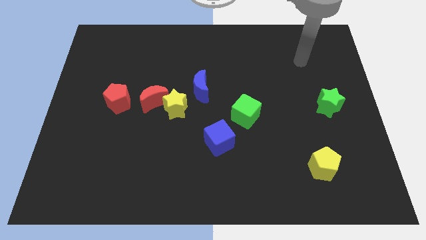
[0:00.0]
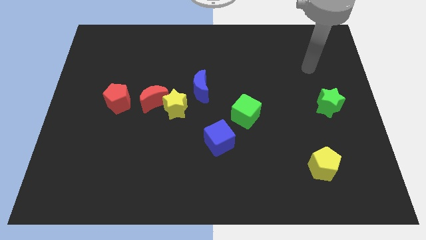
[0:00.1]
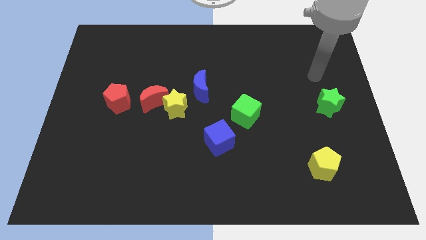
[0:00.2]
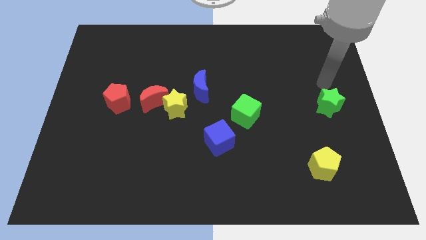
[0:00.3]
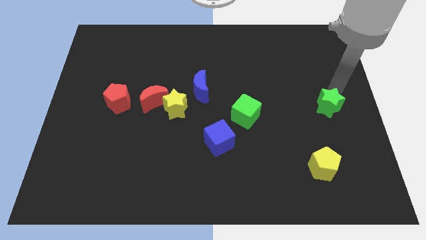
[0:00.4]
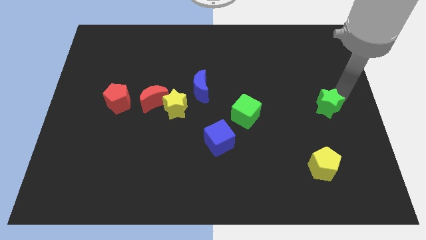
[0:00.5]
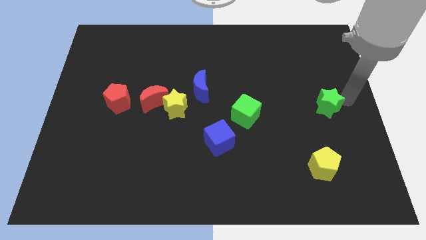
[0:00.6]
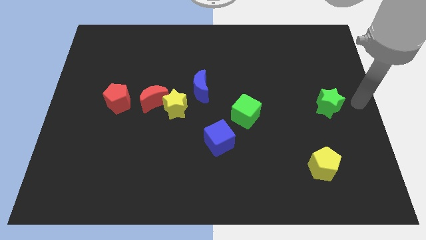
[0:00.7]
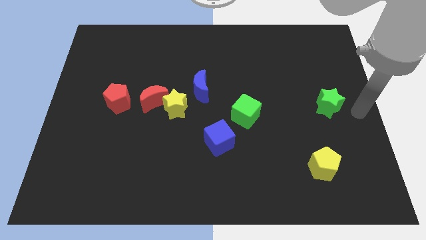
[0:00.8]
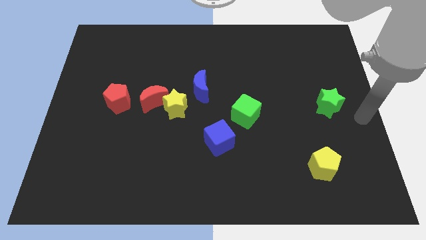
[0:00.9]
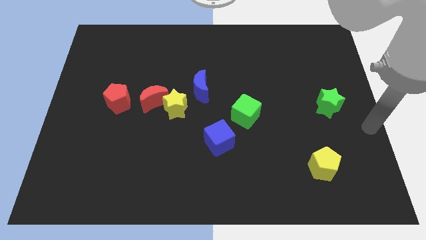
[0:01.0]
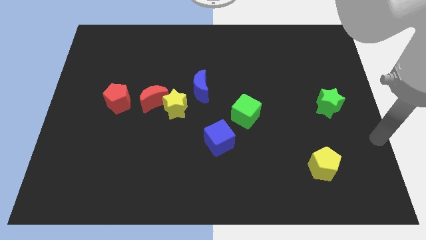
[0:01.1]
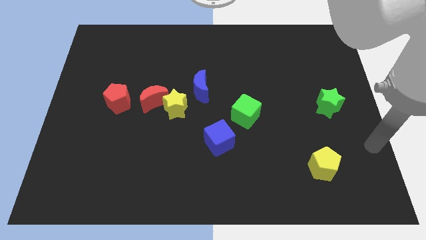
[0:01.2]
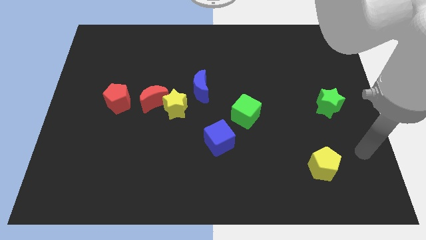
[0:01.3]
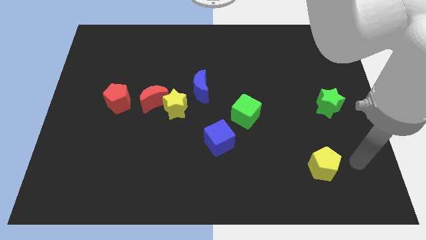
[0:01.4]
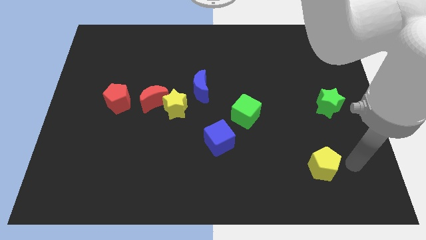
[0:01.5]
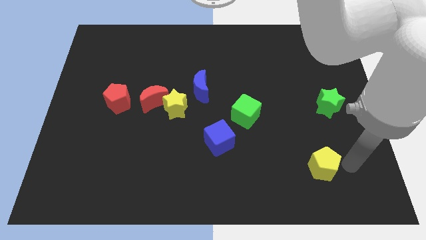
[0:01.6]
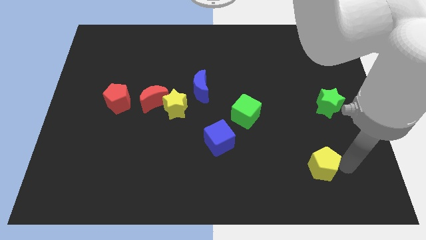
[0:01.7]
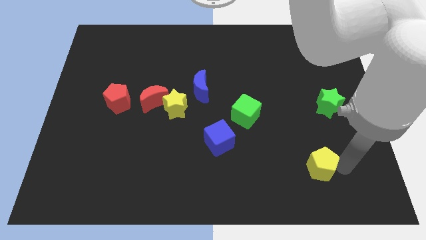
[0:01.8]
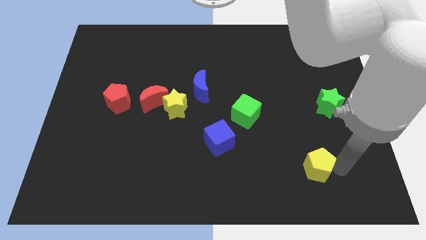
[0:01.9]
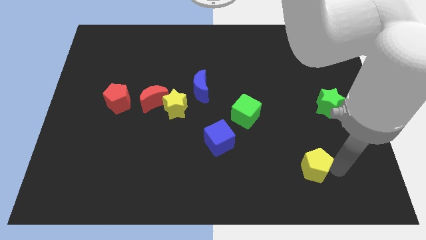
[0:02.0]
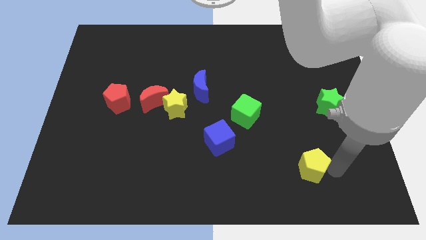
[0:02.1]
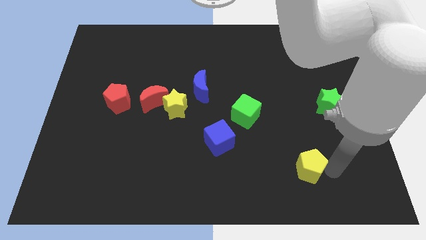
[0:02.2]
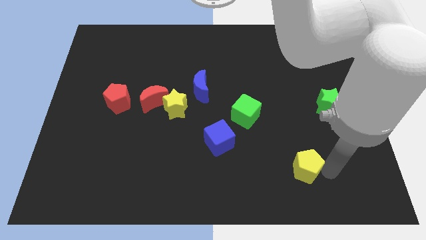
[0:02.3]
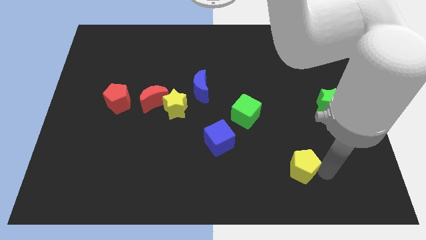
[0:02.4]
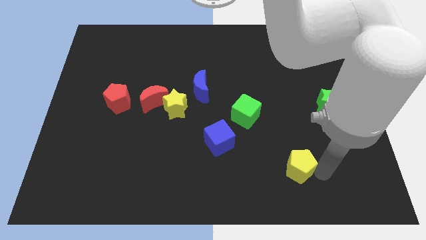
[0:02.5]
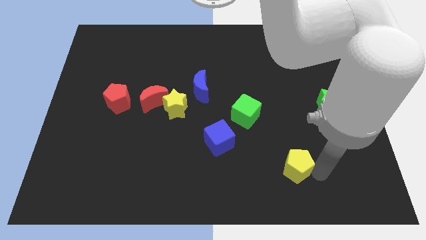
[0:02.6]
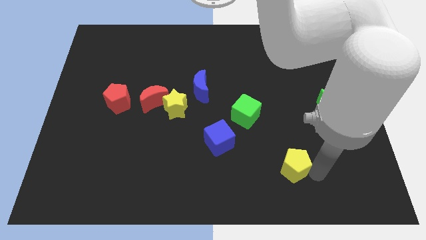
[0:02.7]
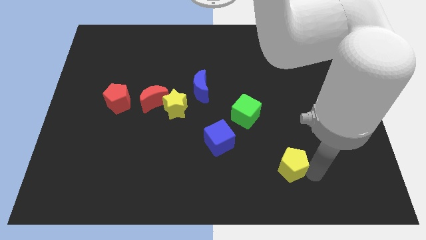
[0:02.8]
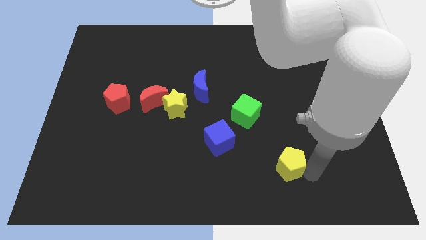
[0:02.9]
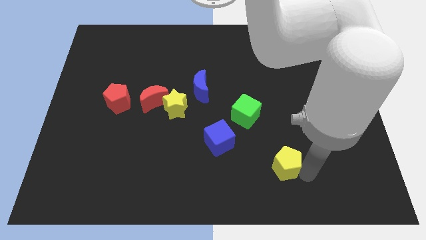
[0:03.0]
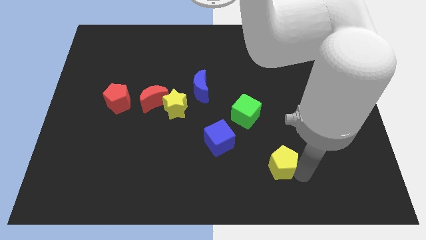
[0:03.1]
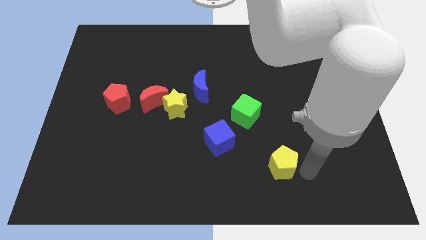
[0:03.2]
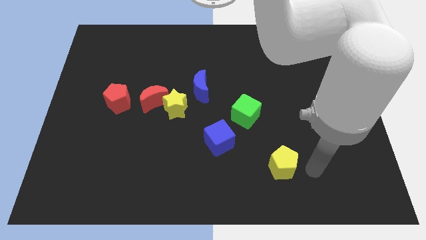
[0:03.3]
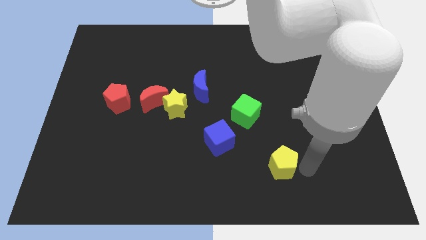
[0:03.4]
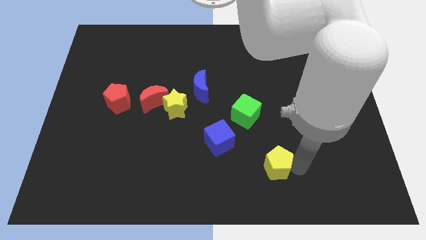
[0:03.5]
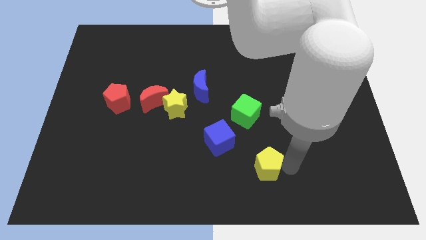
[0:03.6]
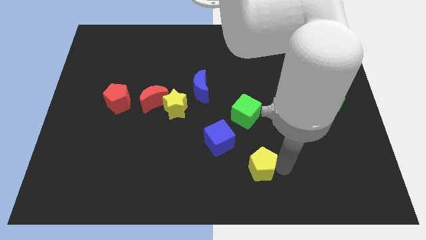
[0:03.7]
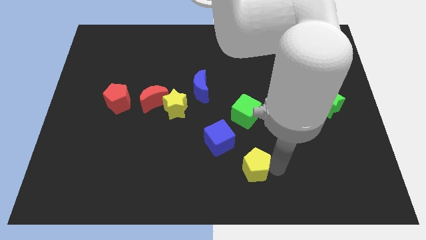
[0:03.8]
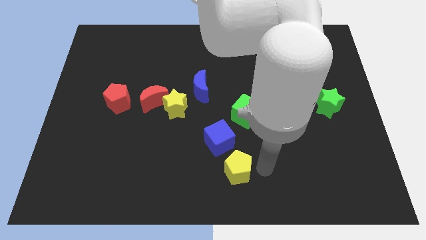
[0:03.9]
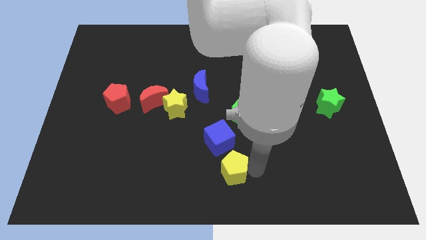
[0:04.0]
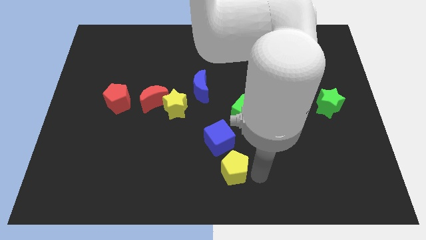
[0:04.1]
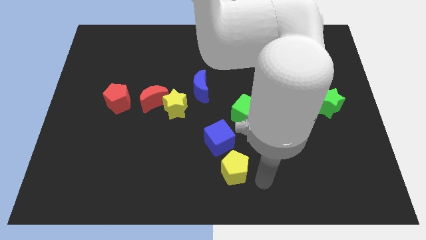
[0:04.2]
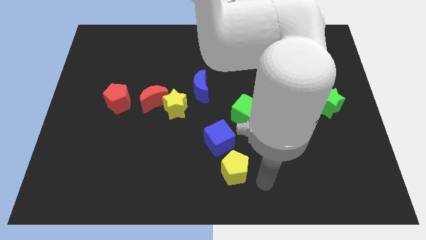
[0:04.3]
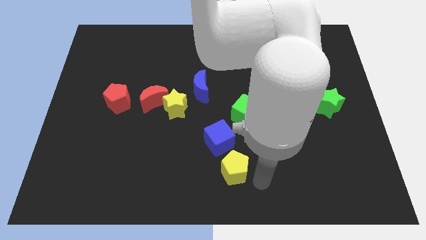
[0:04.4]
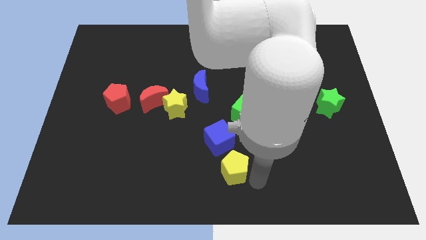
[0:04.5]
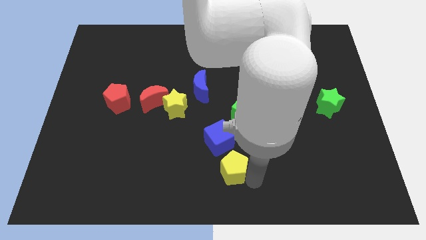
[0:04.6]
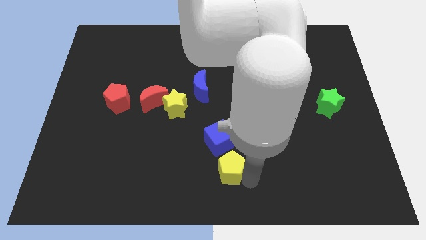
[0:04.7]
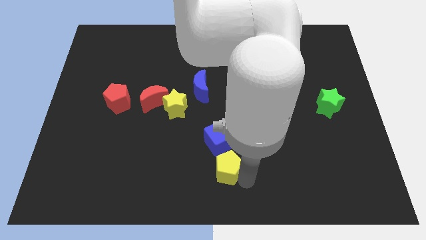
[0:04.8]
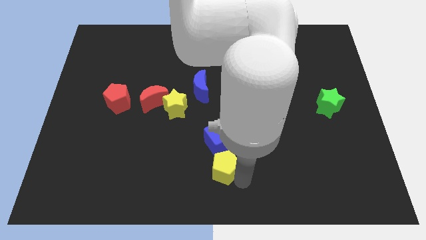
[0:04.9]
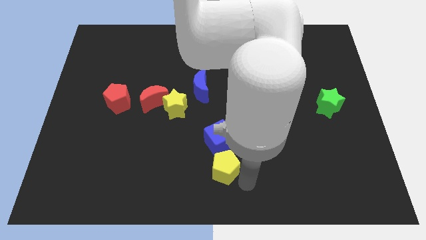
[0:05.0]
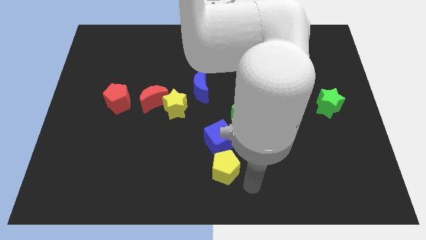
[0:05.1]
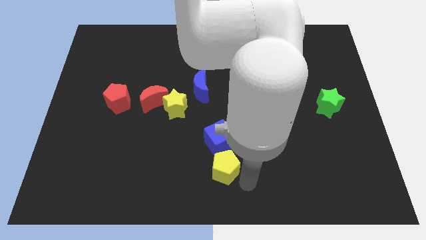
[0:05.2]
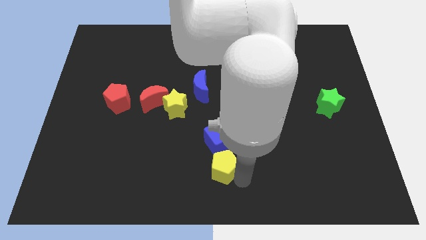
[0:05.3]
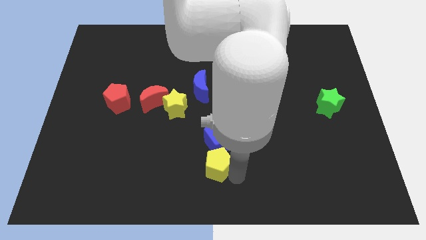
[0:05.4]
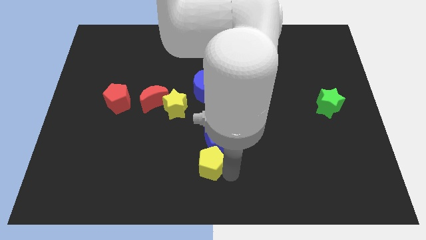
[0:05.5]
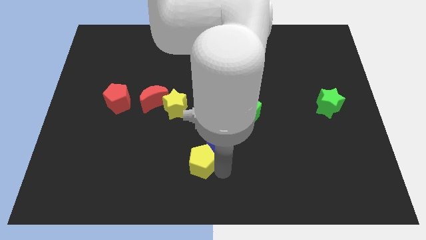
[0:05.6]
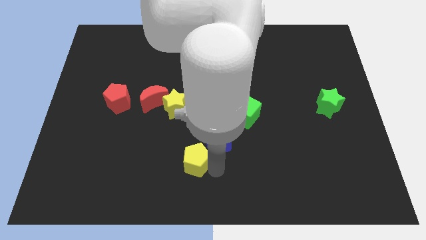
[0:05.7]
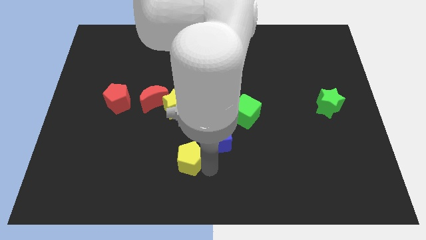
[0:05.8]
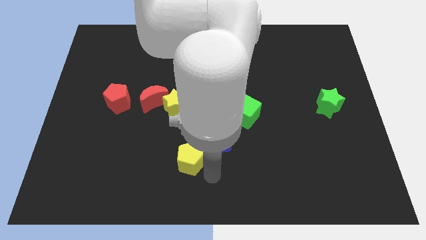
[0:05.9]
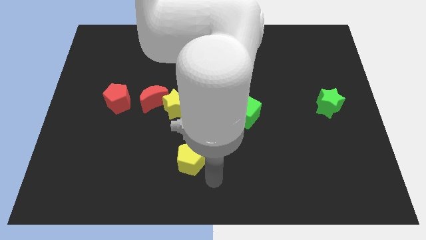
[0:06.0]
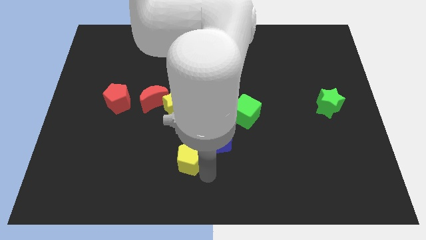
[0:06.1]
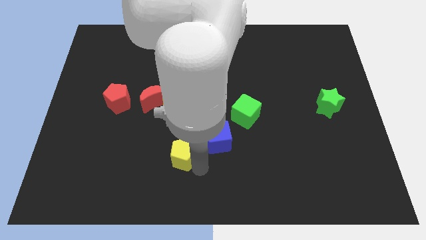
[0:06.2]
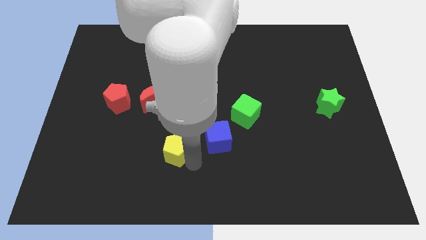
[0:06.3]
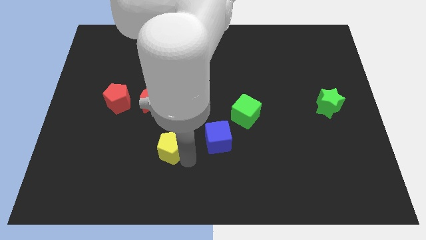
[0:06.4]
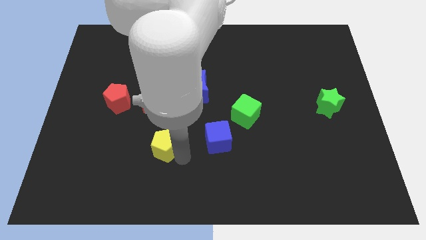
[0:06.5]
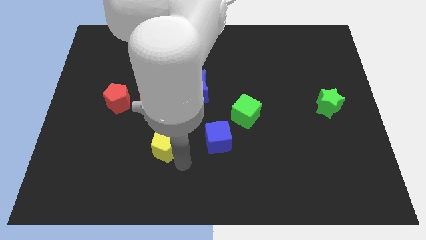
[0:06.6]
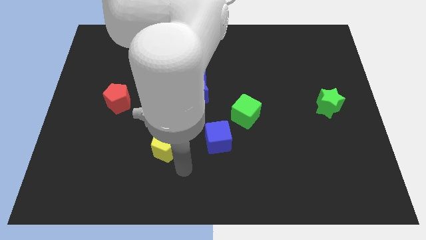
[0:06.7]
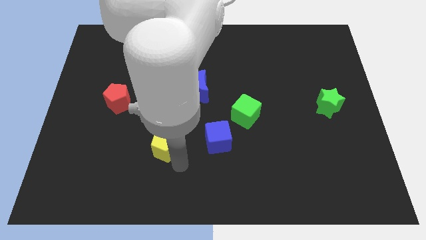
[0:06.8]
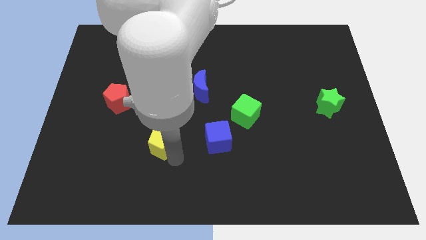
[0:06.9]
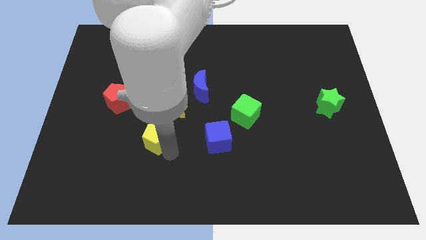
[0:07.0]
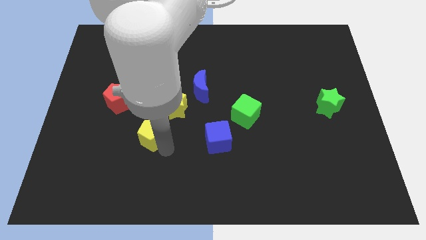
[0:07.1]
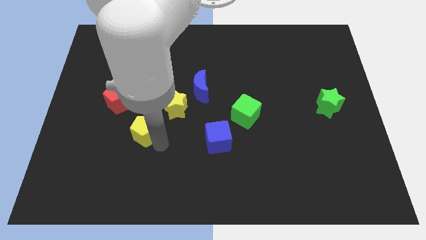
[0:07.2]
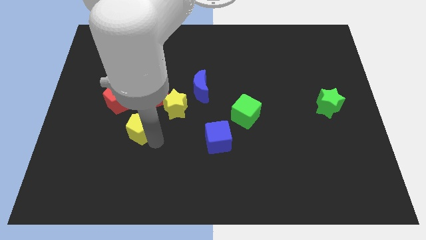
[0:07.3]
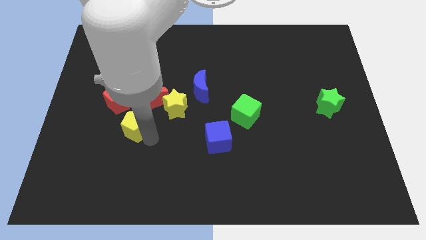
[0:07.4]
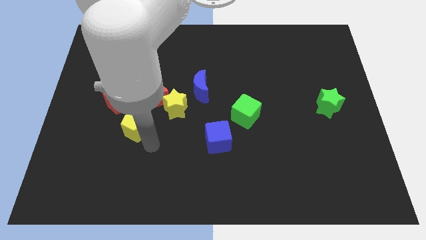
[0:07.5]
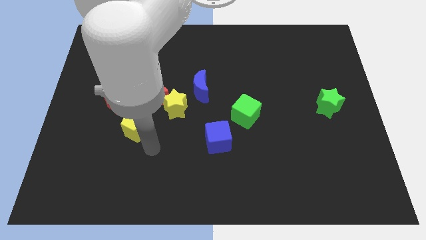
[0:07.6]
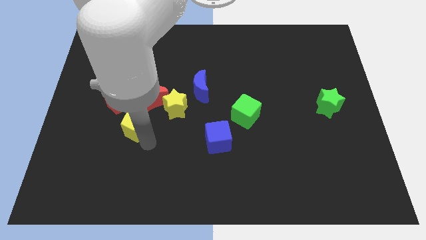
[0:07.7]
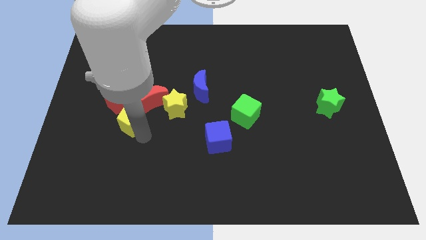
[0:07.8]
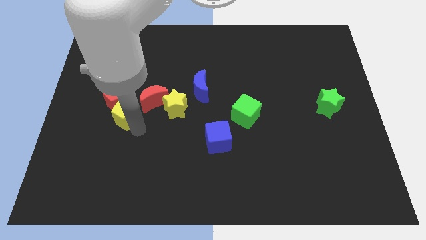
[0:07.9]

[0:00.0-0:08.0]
put the yellow pentagon next to the red pentagon
